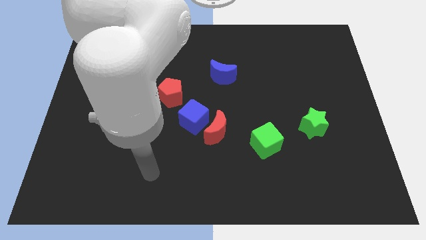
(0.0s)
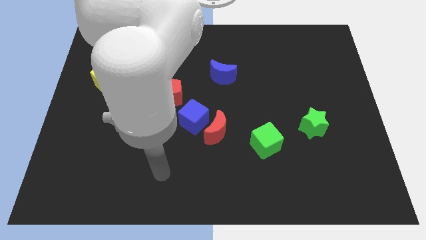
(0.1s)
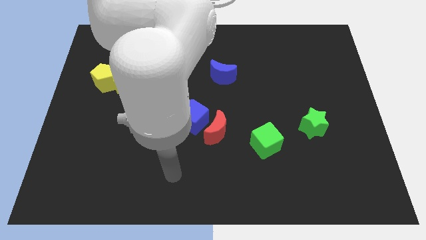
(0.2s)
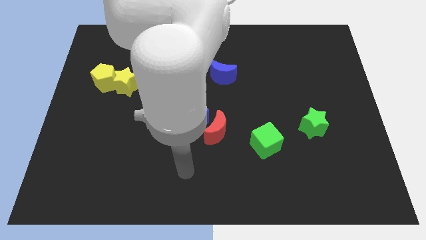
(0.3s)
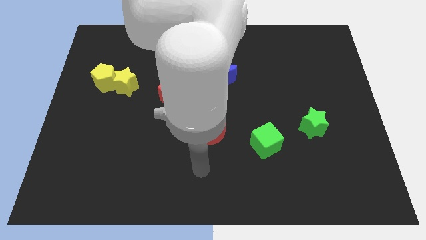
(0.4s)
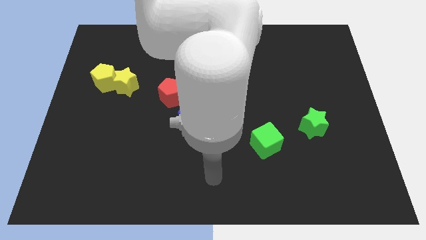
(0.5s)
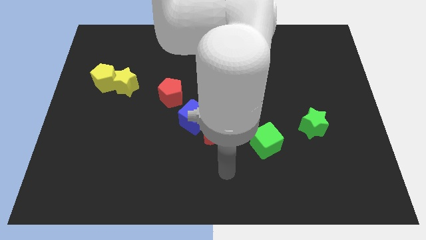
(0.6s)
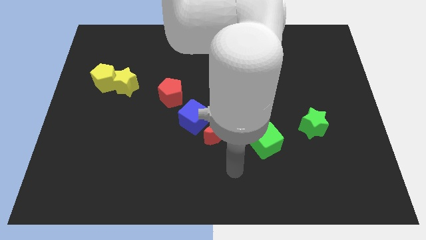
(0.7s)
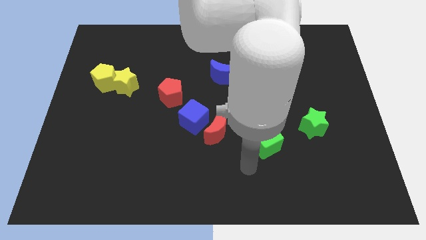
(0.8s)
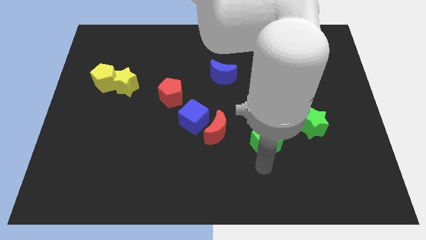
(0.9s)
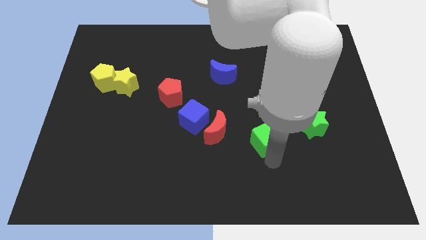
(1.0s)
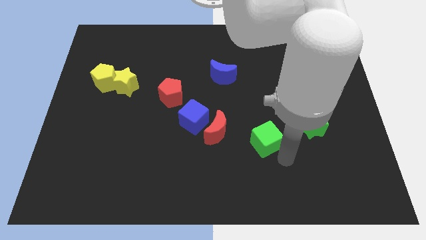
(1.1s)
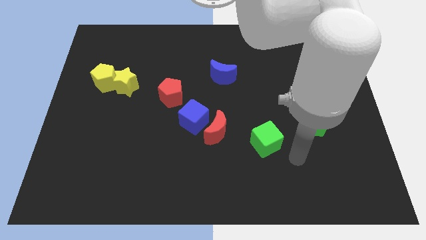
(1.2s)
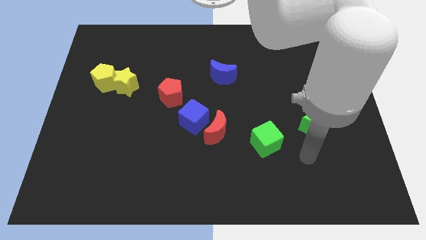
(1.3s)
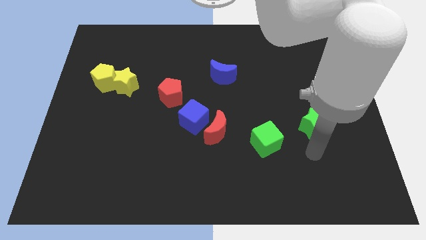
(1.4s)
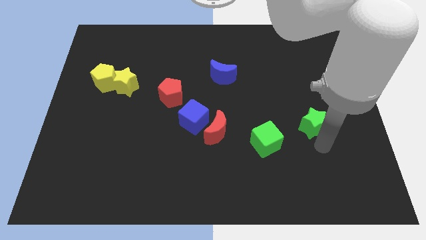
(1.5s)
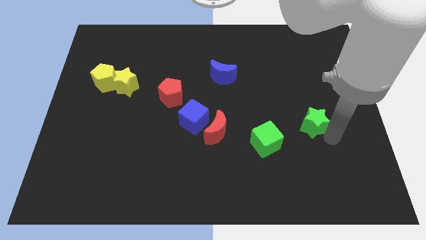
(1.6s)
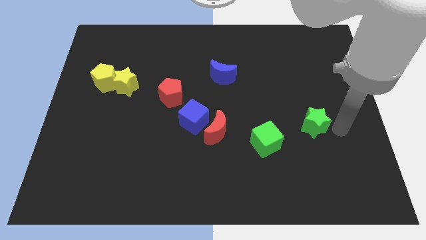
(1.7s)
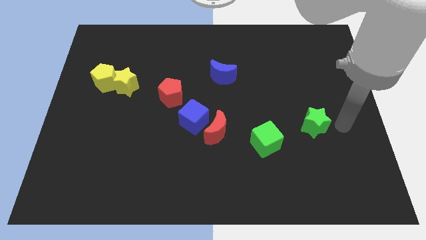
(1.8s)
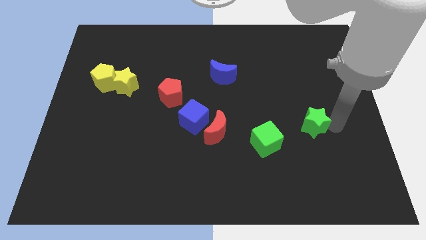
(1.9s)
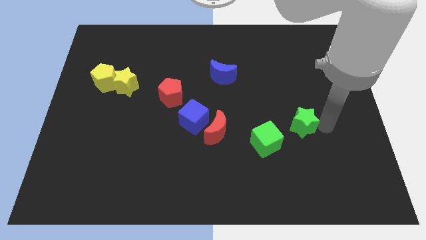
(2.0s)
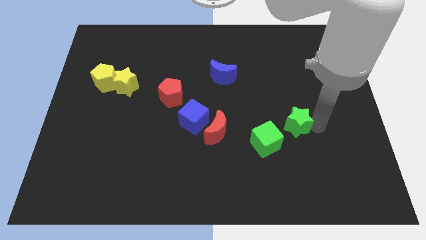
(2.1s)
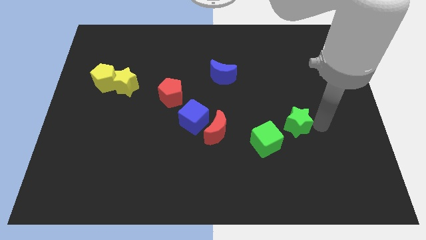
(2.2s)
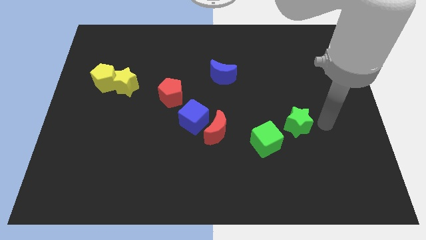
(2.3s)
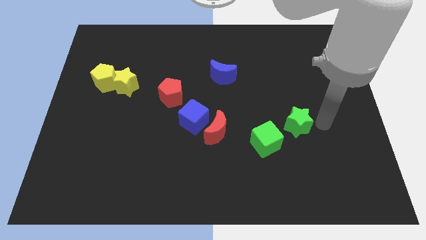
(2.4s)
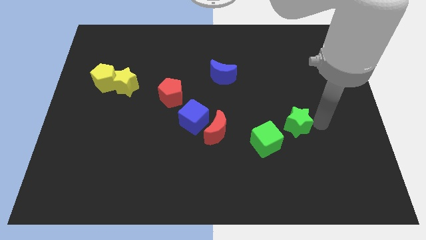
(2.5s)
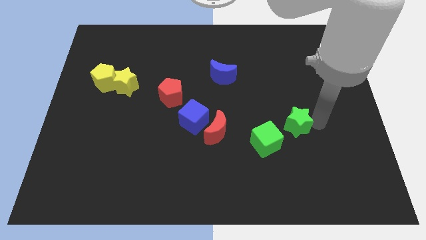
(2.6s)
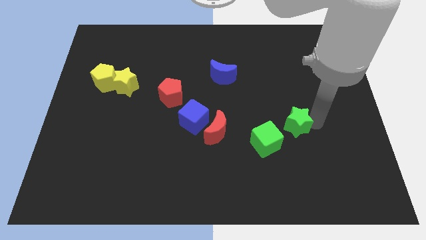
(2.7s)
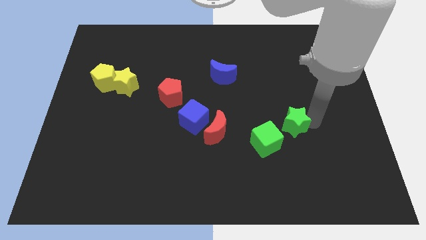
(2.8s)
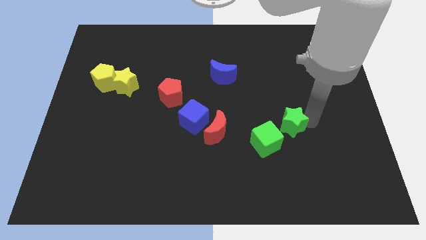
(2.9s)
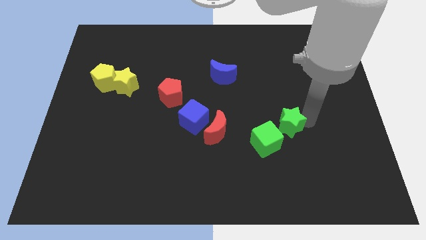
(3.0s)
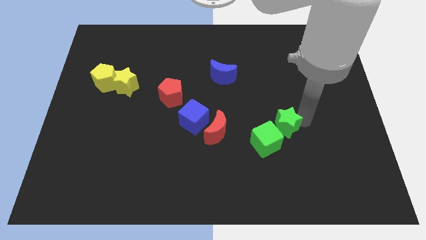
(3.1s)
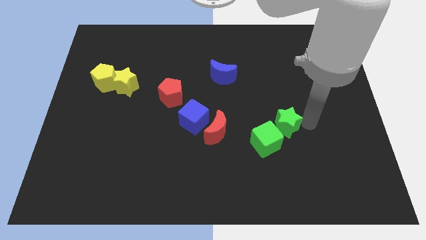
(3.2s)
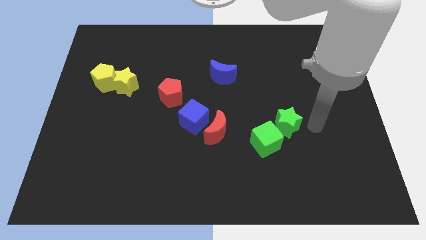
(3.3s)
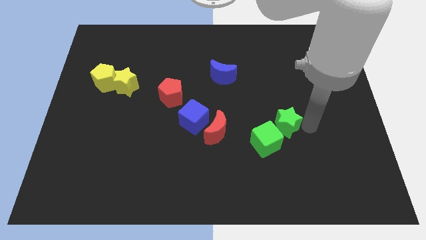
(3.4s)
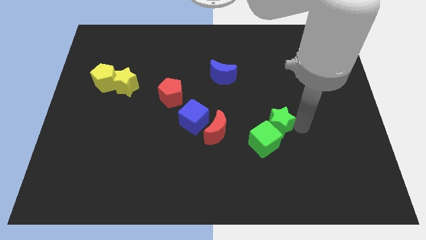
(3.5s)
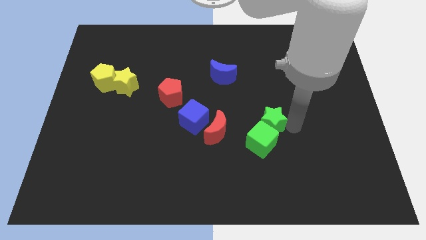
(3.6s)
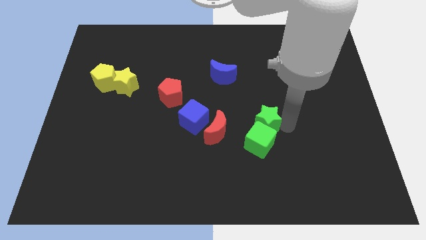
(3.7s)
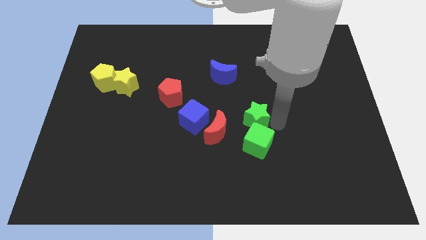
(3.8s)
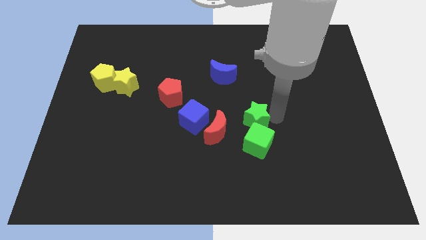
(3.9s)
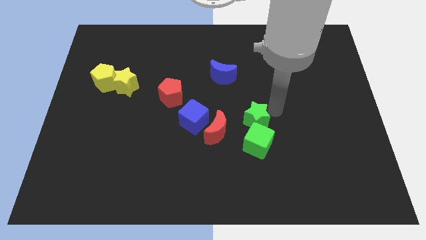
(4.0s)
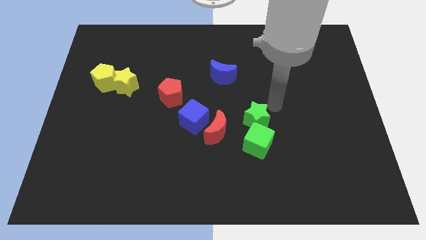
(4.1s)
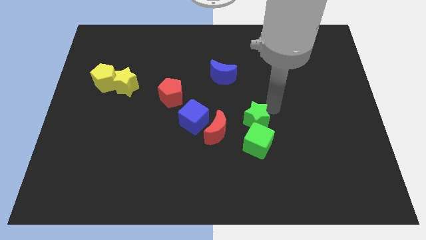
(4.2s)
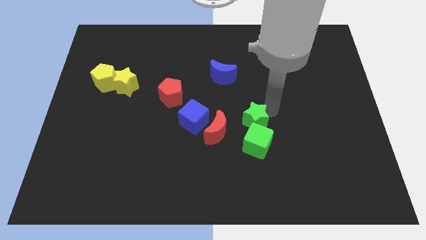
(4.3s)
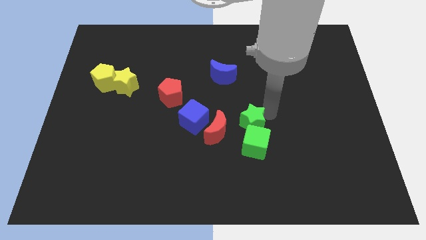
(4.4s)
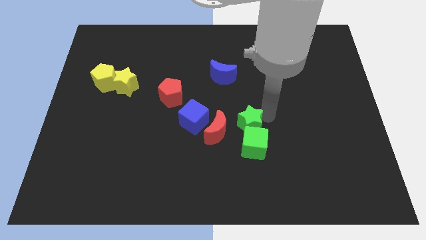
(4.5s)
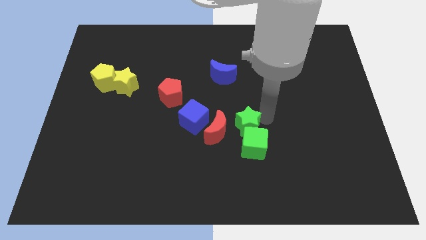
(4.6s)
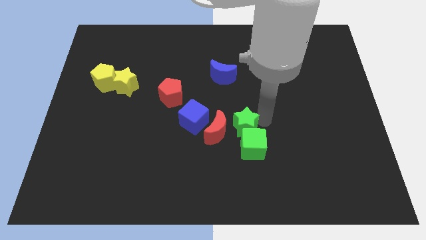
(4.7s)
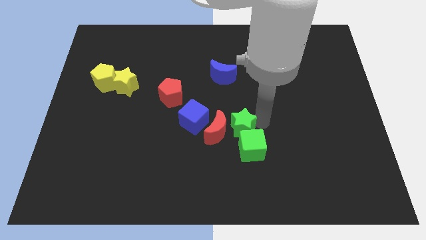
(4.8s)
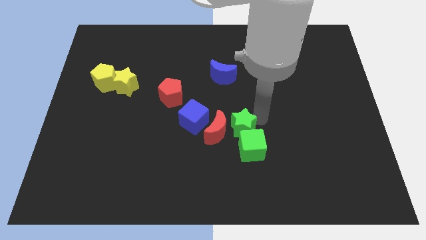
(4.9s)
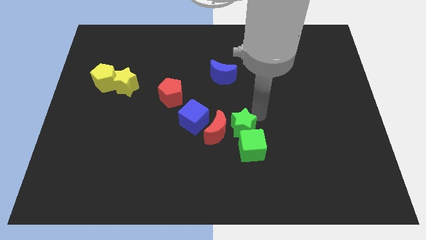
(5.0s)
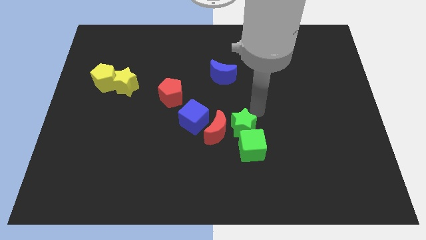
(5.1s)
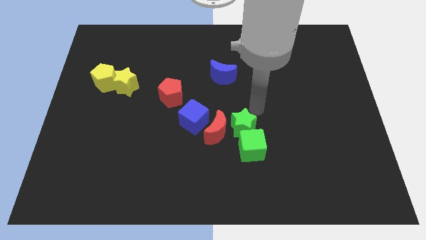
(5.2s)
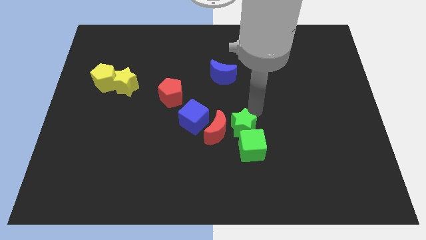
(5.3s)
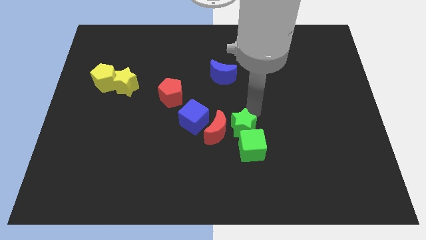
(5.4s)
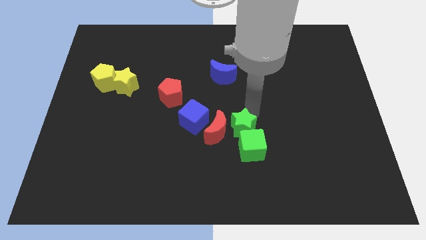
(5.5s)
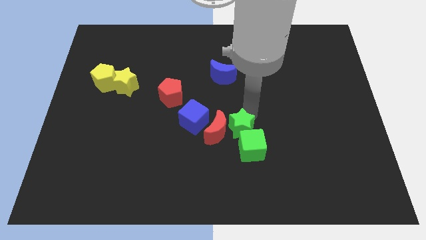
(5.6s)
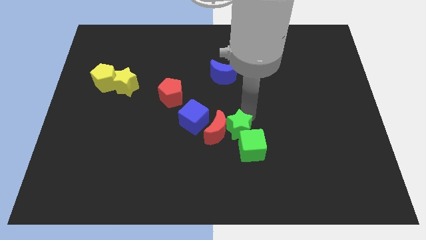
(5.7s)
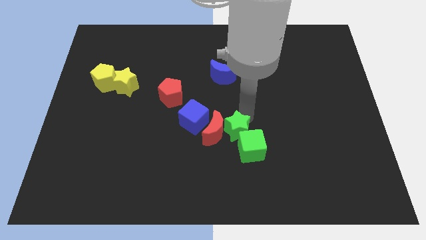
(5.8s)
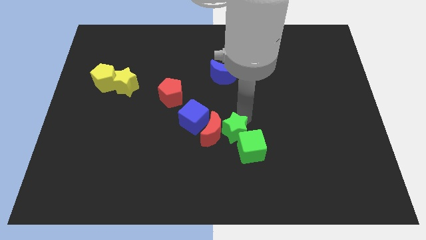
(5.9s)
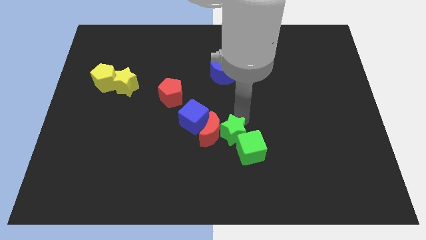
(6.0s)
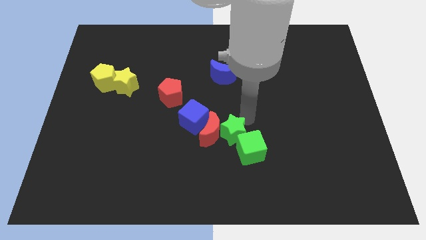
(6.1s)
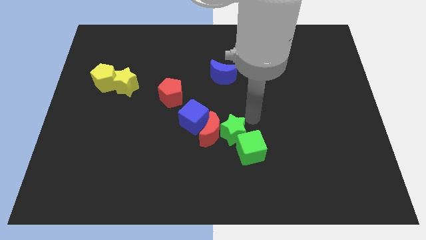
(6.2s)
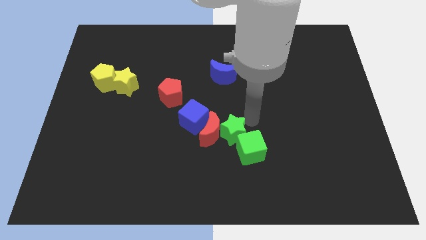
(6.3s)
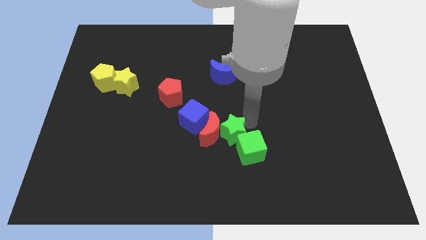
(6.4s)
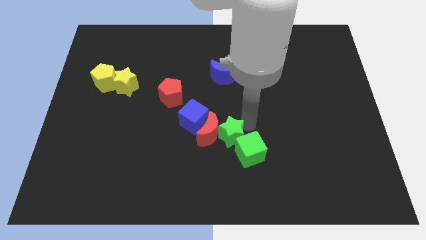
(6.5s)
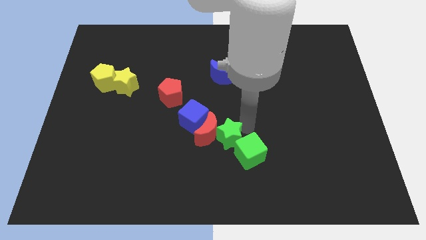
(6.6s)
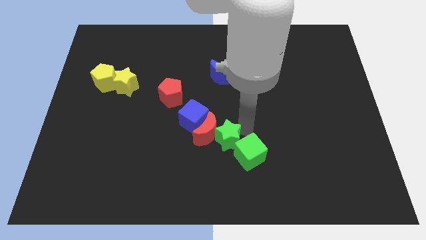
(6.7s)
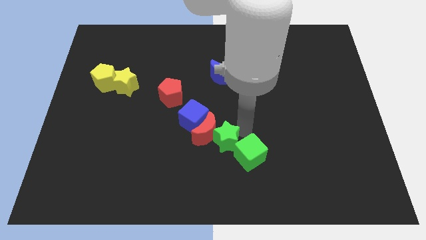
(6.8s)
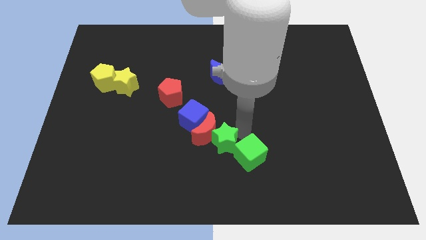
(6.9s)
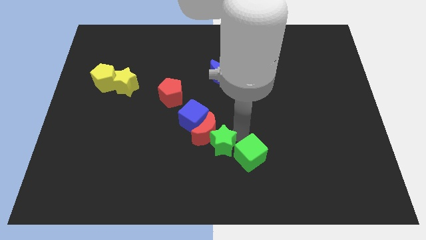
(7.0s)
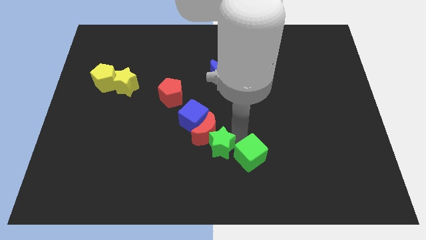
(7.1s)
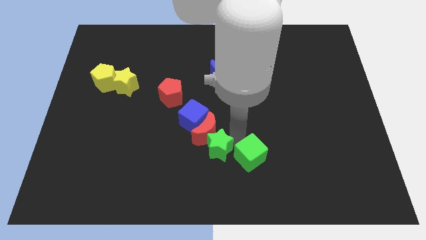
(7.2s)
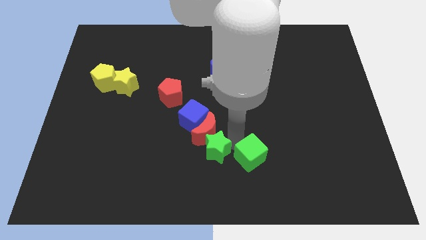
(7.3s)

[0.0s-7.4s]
slide the green star to the bottom side of the blue cube
